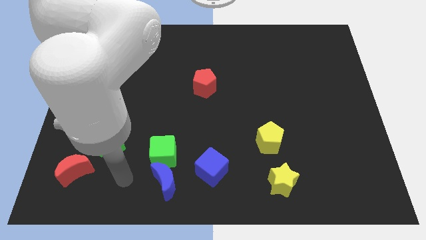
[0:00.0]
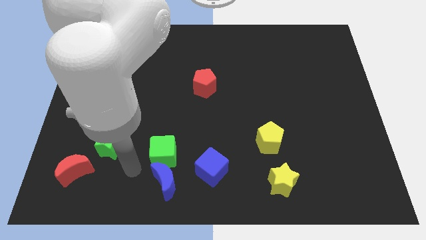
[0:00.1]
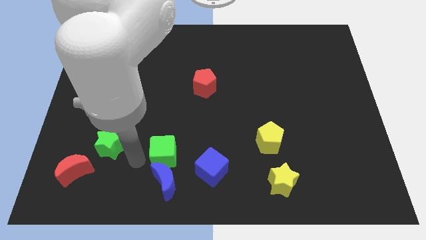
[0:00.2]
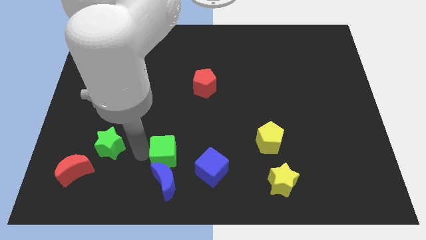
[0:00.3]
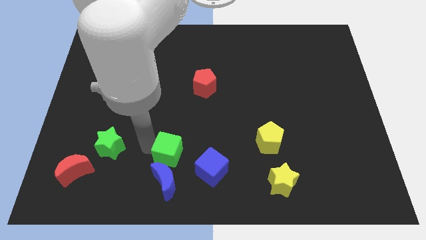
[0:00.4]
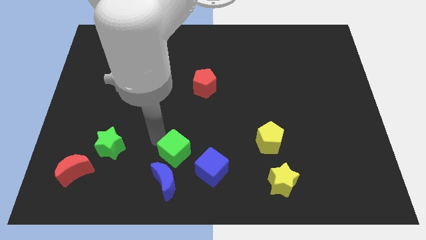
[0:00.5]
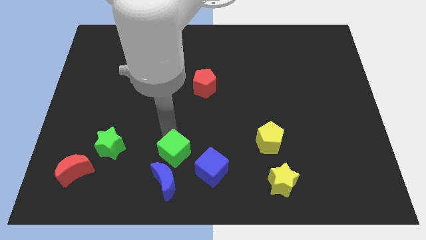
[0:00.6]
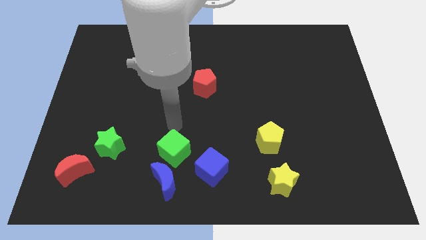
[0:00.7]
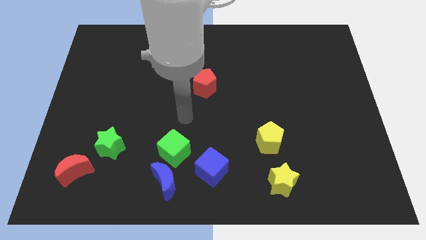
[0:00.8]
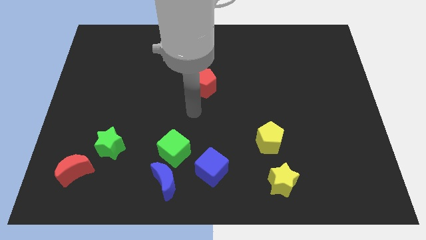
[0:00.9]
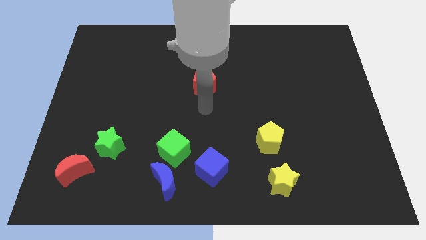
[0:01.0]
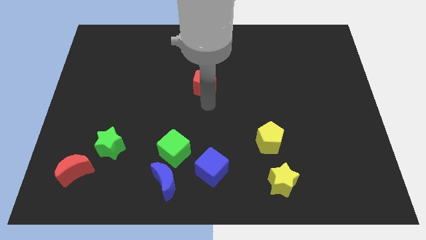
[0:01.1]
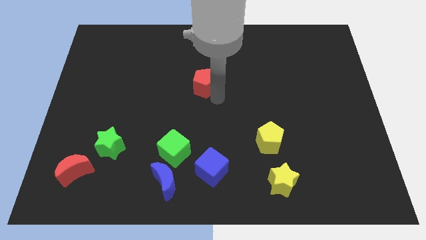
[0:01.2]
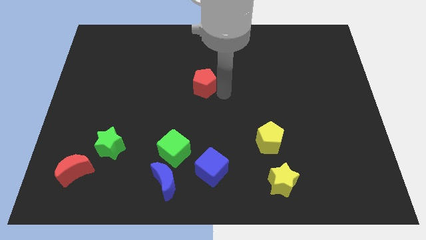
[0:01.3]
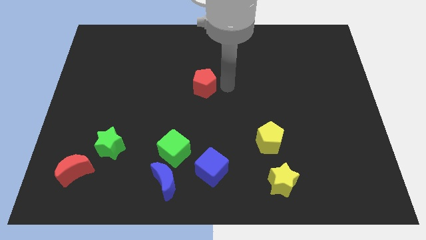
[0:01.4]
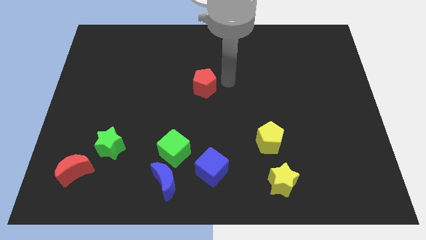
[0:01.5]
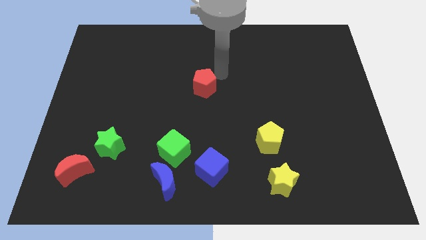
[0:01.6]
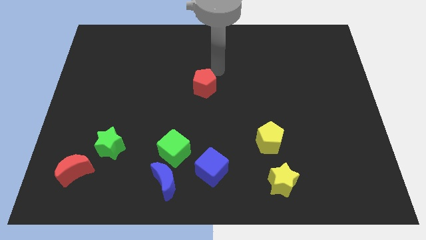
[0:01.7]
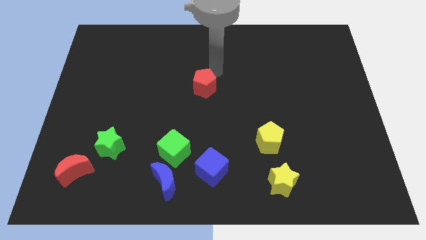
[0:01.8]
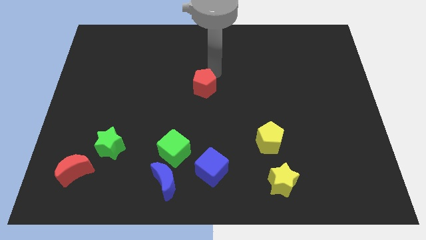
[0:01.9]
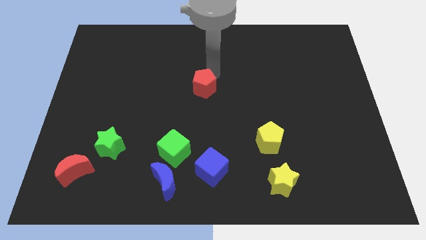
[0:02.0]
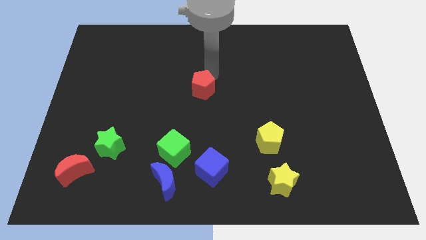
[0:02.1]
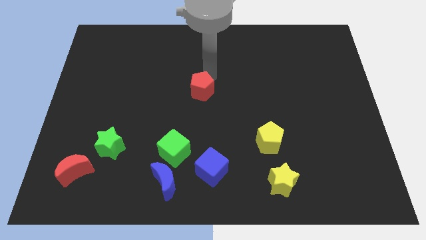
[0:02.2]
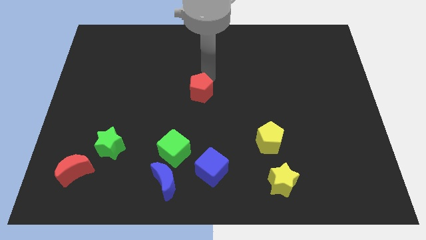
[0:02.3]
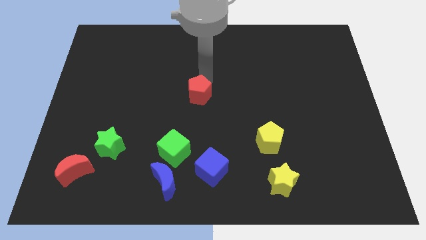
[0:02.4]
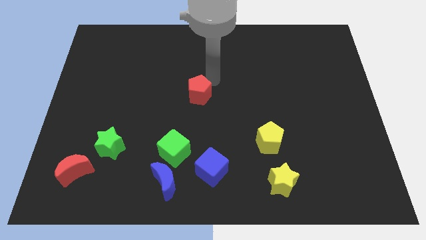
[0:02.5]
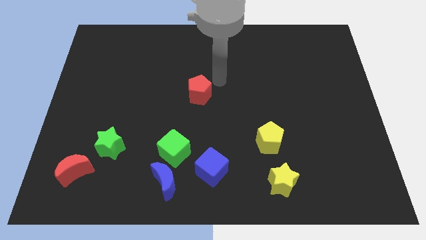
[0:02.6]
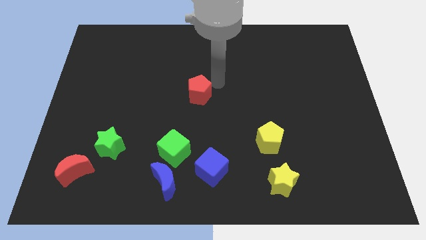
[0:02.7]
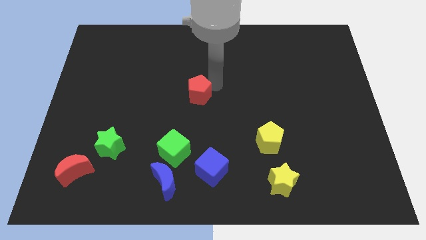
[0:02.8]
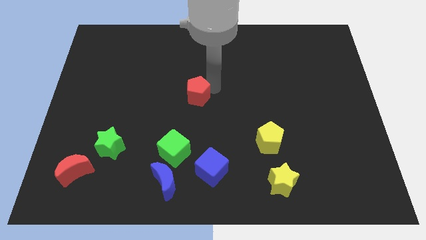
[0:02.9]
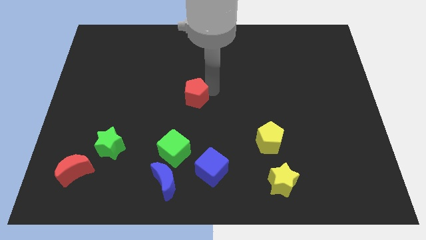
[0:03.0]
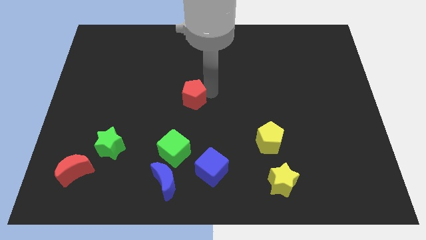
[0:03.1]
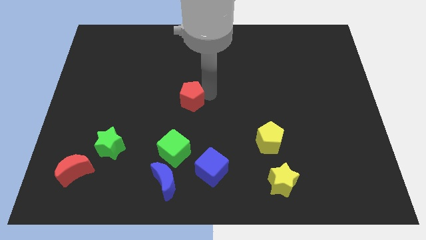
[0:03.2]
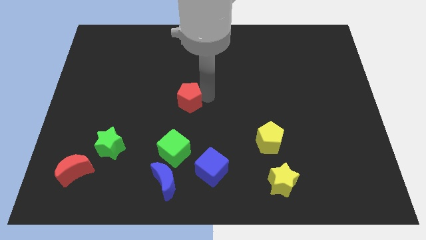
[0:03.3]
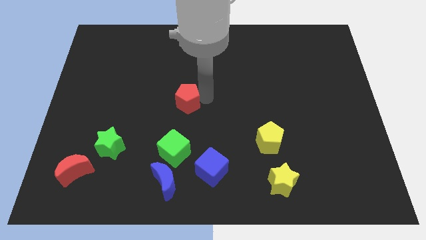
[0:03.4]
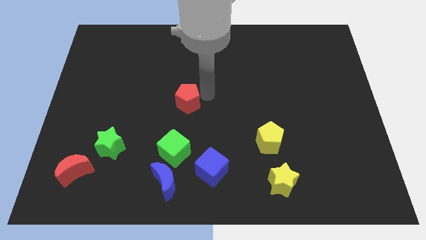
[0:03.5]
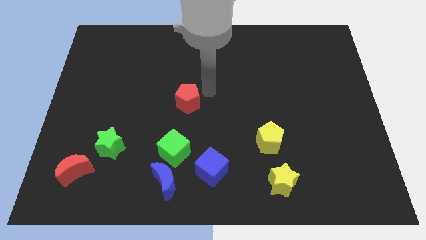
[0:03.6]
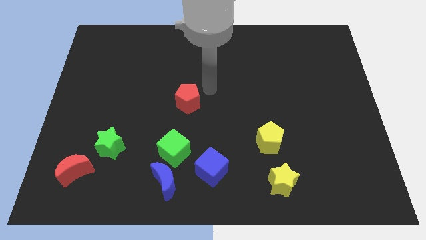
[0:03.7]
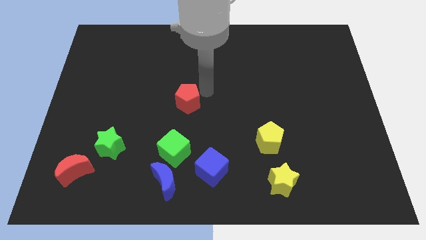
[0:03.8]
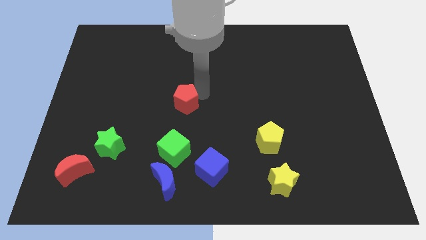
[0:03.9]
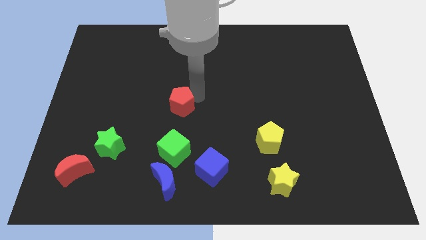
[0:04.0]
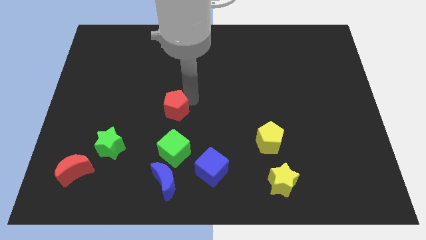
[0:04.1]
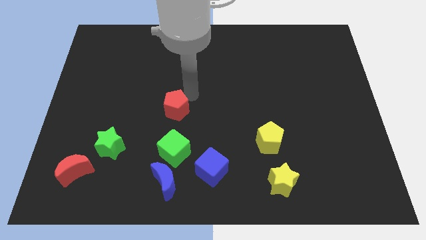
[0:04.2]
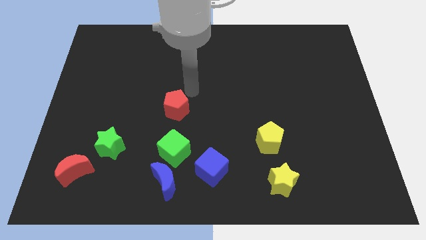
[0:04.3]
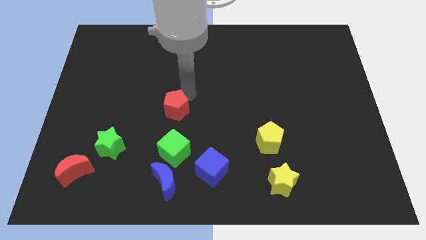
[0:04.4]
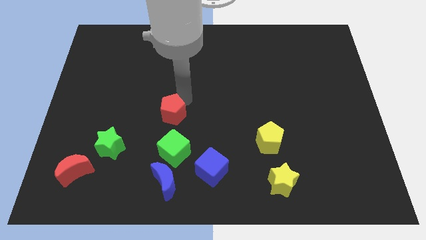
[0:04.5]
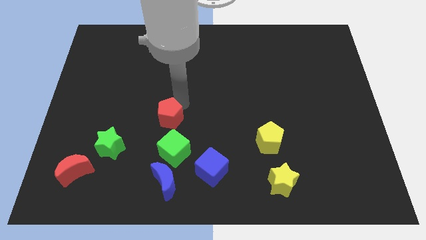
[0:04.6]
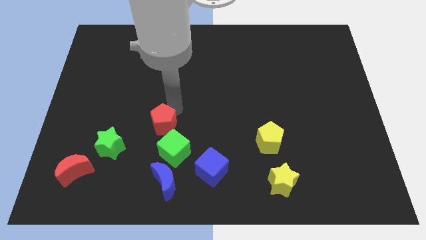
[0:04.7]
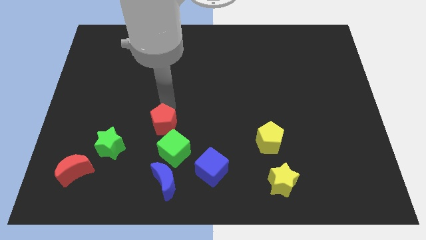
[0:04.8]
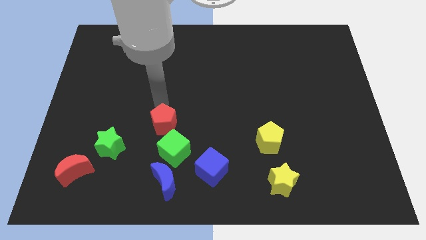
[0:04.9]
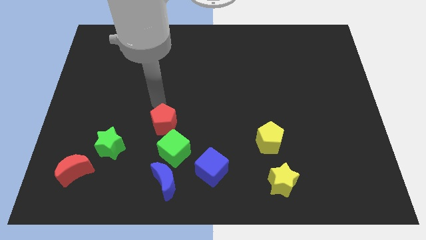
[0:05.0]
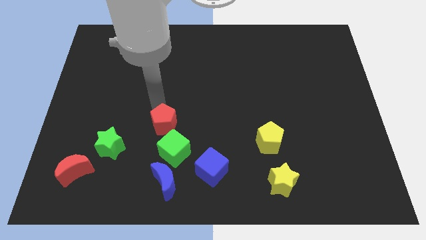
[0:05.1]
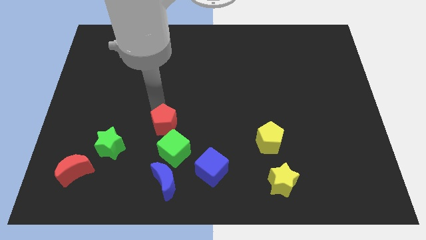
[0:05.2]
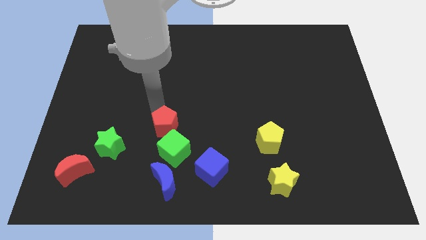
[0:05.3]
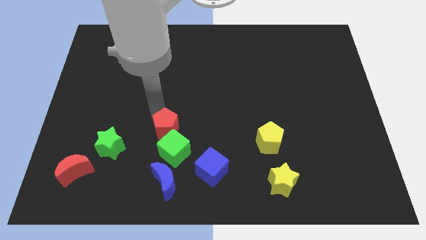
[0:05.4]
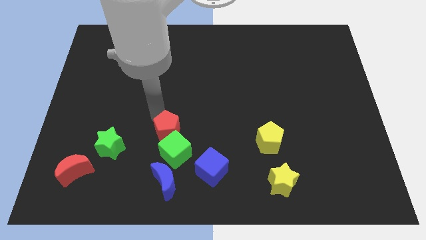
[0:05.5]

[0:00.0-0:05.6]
move the red pentagon close to the green cube

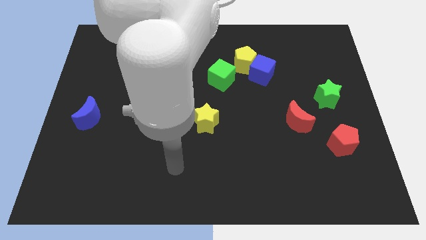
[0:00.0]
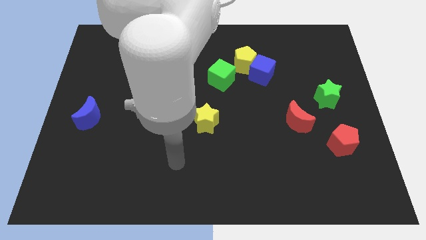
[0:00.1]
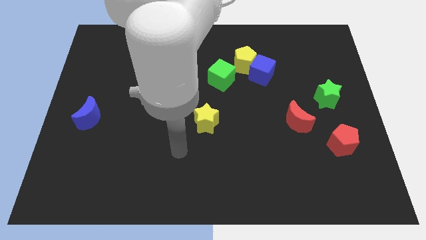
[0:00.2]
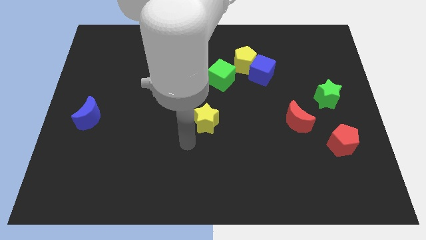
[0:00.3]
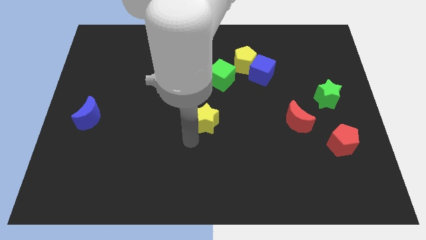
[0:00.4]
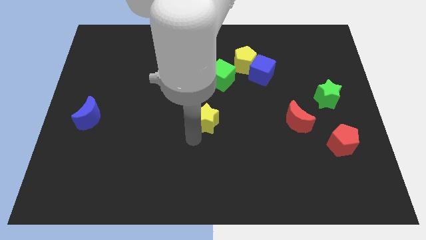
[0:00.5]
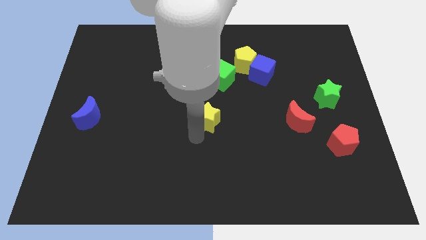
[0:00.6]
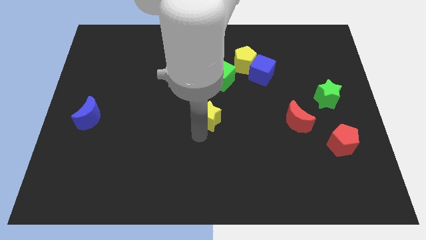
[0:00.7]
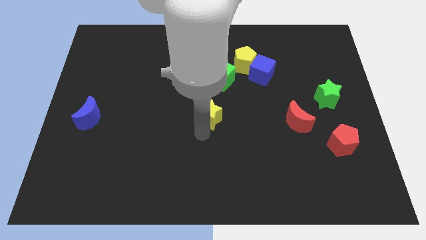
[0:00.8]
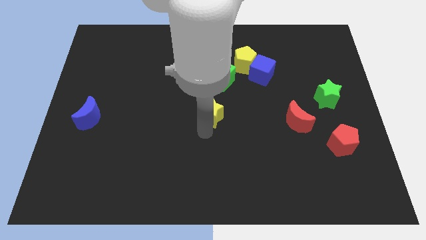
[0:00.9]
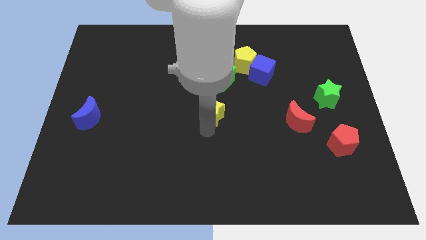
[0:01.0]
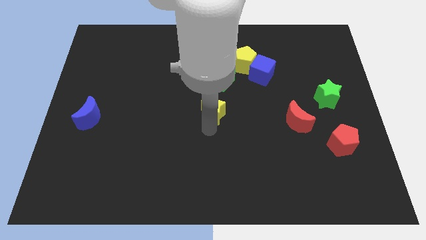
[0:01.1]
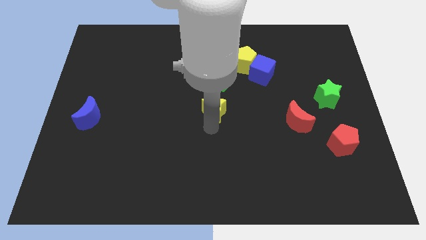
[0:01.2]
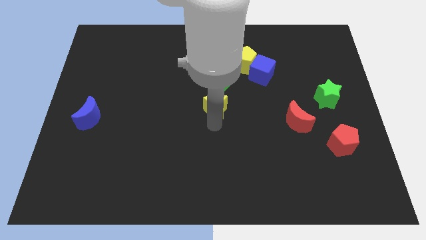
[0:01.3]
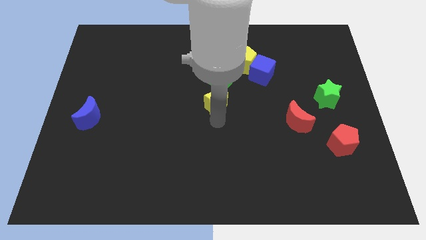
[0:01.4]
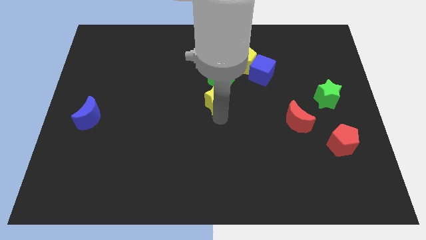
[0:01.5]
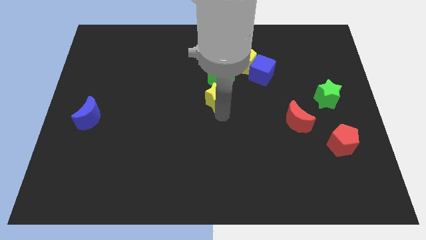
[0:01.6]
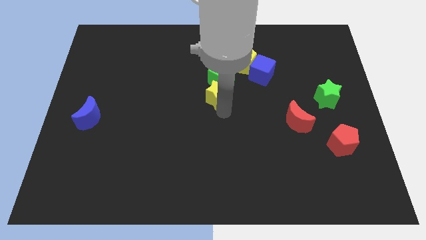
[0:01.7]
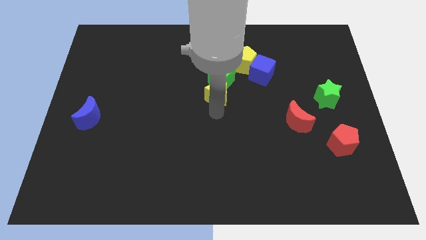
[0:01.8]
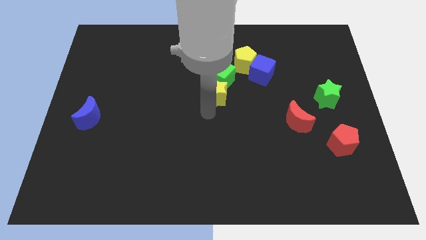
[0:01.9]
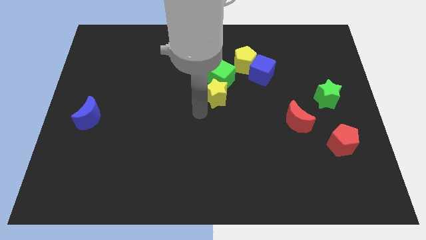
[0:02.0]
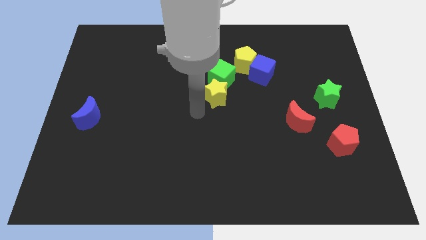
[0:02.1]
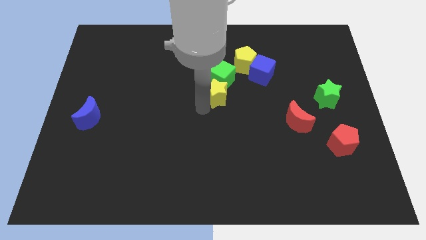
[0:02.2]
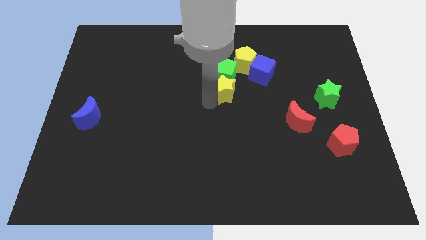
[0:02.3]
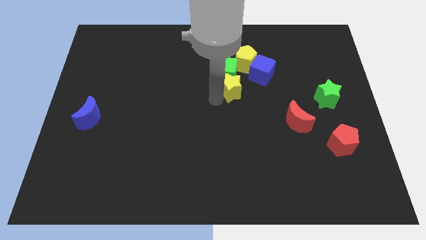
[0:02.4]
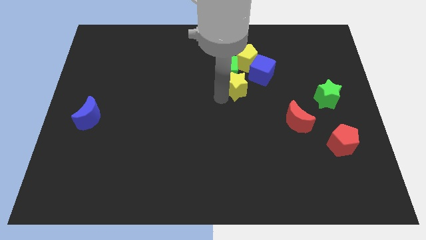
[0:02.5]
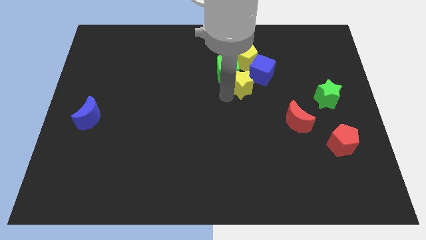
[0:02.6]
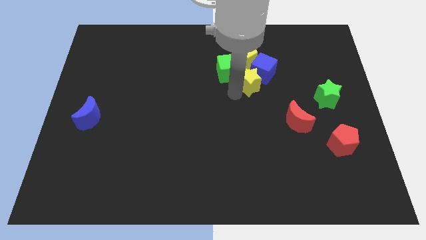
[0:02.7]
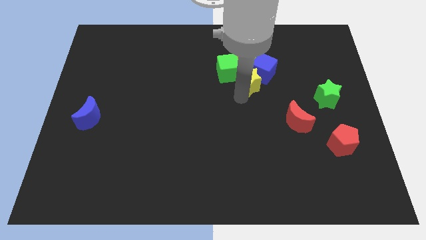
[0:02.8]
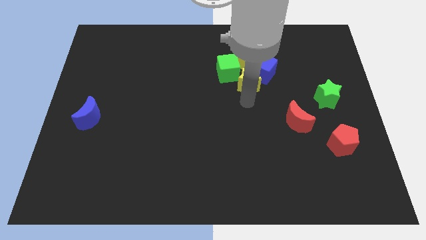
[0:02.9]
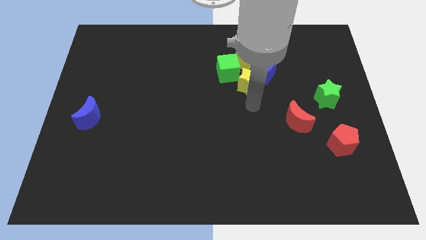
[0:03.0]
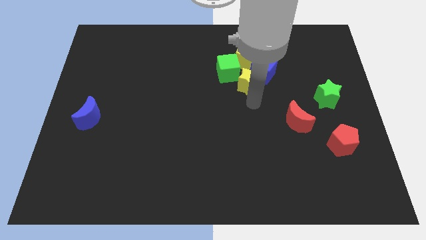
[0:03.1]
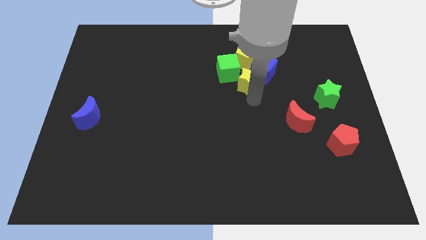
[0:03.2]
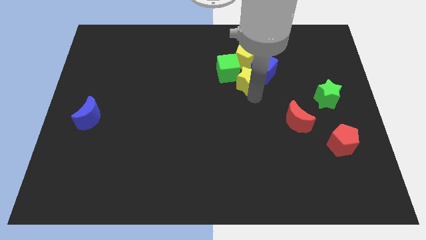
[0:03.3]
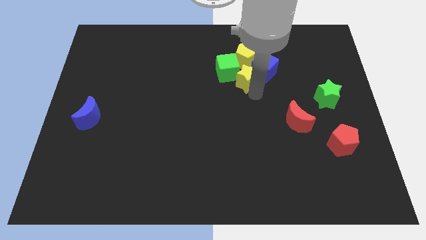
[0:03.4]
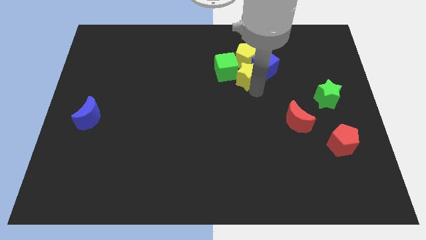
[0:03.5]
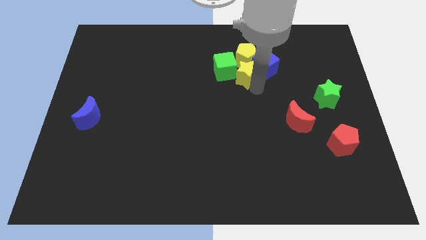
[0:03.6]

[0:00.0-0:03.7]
move the yellow star next to the yellow pentagon
